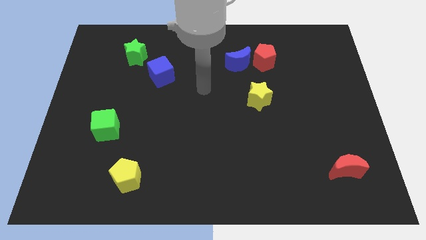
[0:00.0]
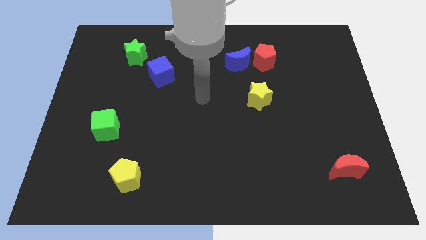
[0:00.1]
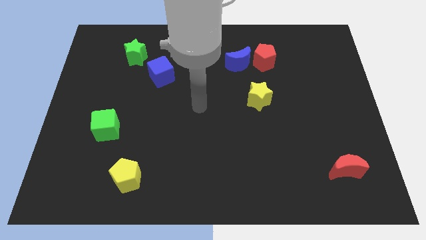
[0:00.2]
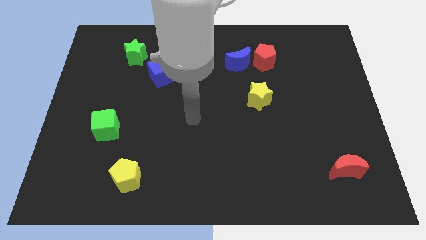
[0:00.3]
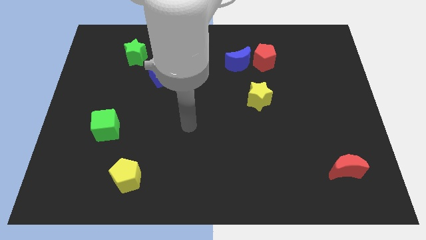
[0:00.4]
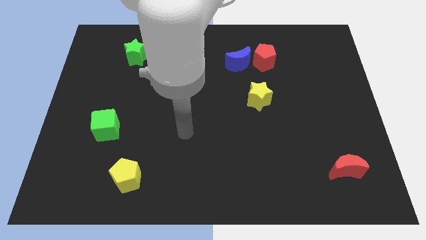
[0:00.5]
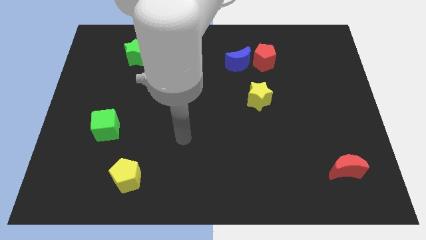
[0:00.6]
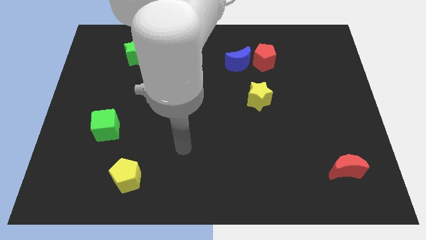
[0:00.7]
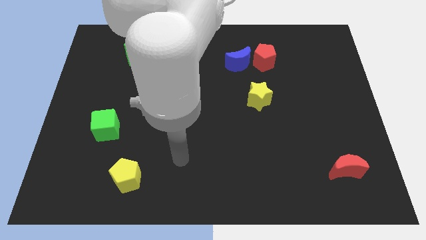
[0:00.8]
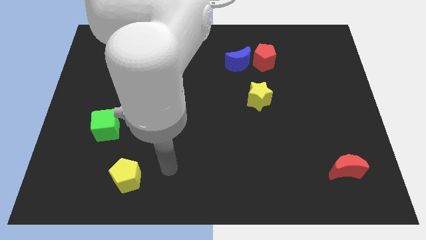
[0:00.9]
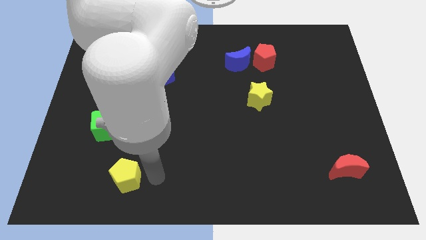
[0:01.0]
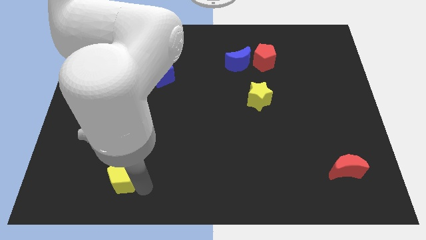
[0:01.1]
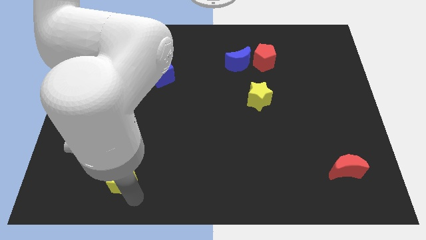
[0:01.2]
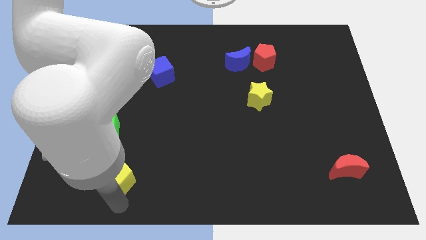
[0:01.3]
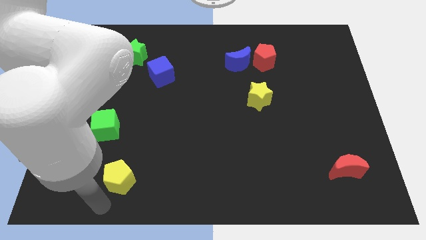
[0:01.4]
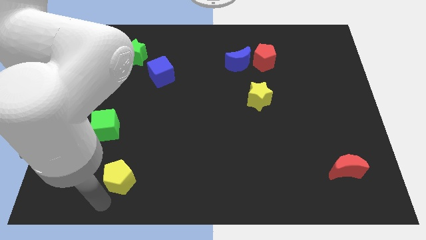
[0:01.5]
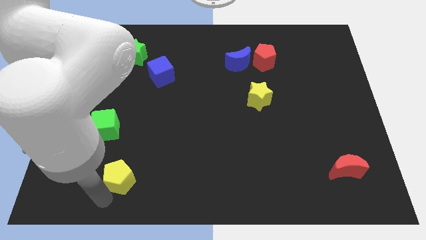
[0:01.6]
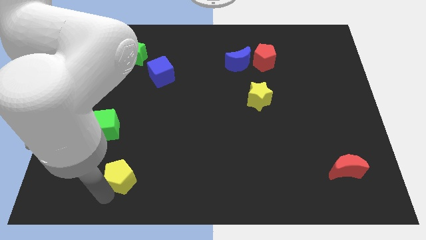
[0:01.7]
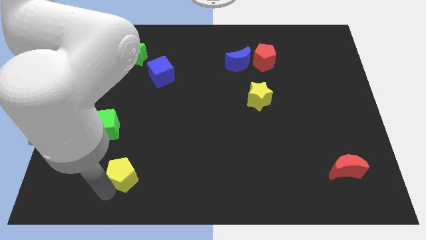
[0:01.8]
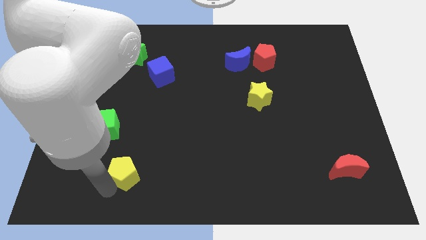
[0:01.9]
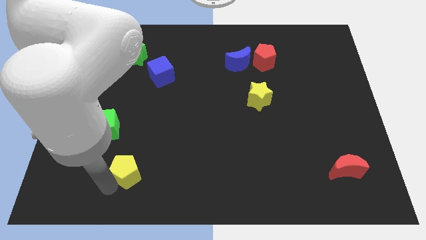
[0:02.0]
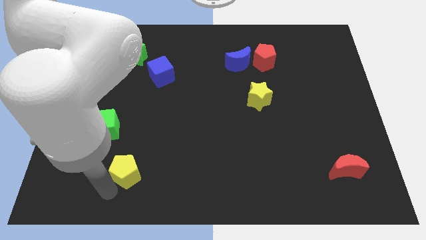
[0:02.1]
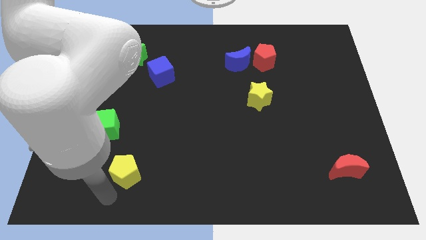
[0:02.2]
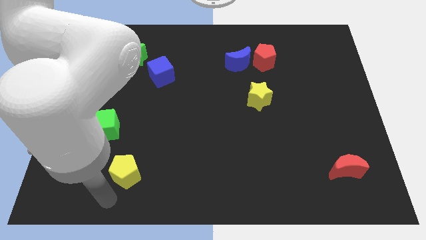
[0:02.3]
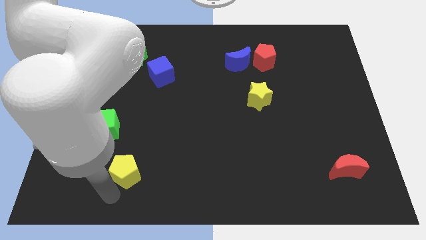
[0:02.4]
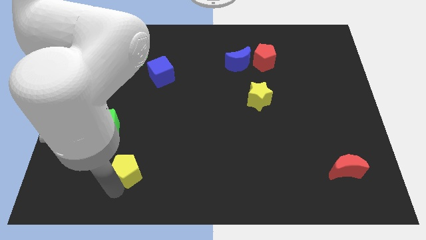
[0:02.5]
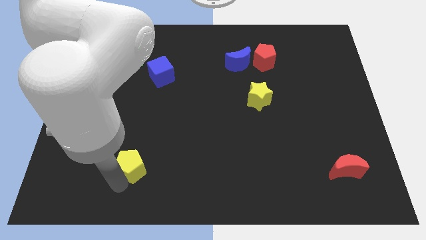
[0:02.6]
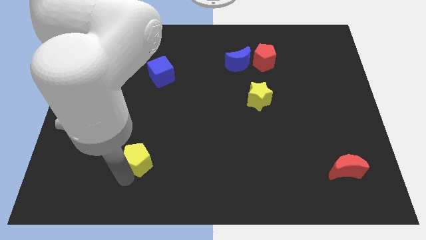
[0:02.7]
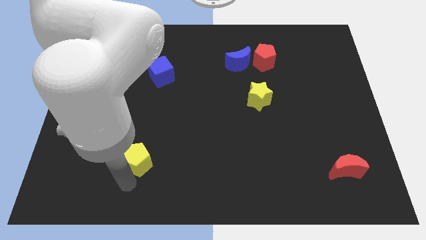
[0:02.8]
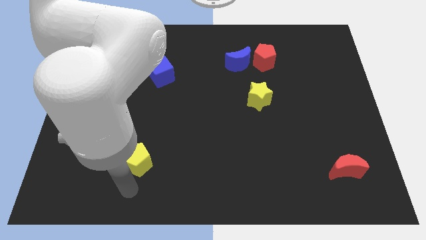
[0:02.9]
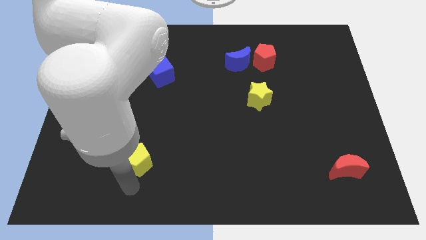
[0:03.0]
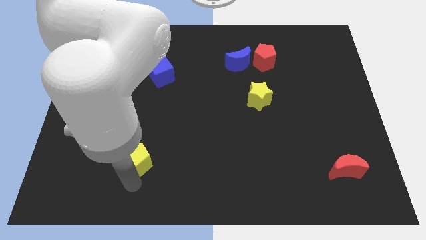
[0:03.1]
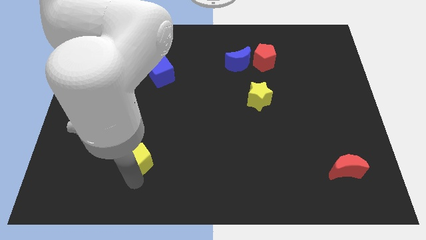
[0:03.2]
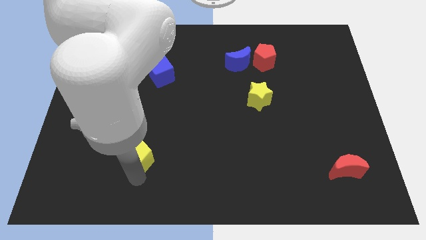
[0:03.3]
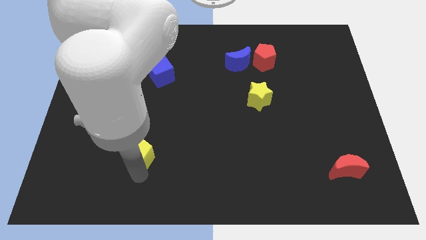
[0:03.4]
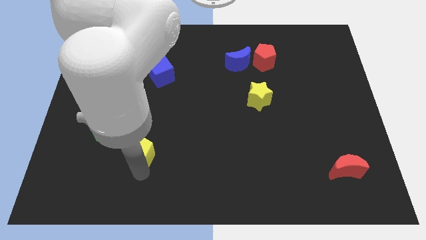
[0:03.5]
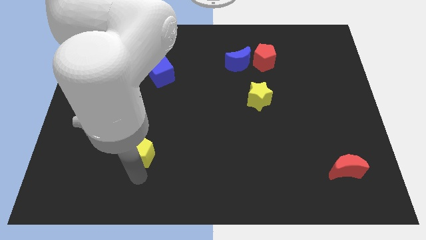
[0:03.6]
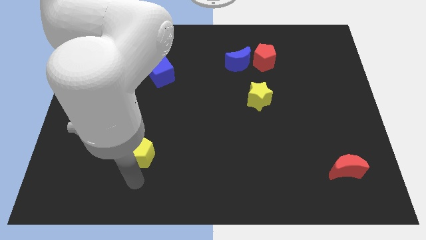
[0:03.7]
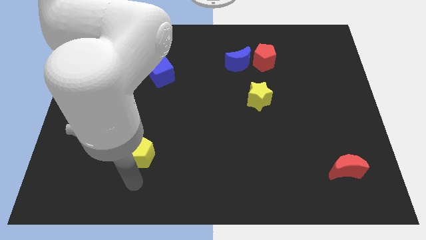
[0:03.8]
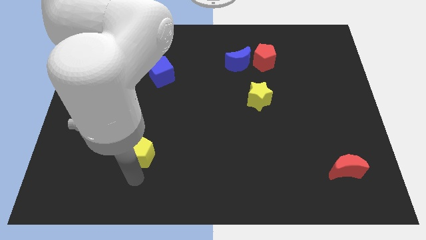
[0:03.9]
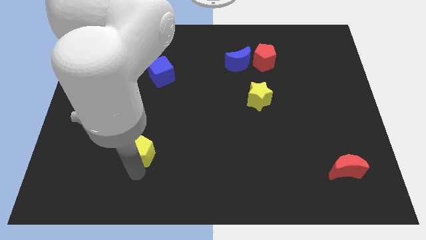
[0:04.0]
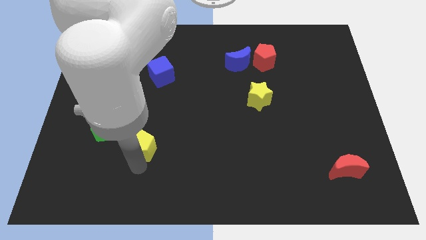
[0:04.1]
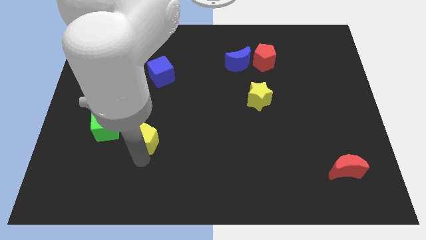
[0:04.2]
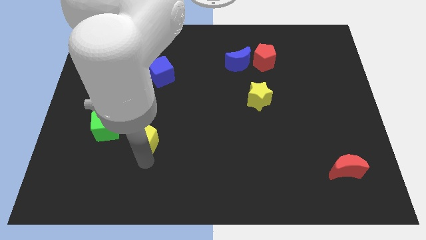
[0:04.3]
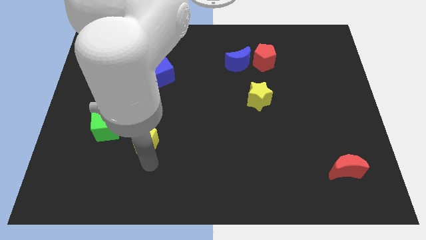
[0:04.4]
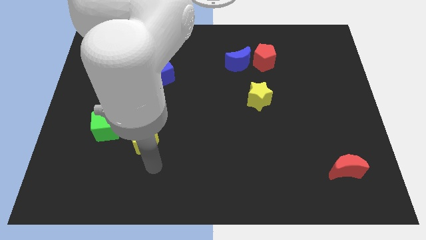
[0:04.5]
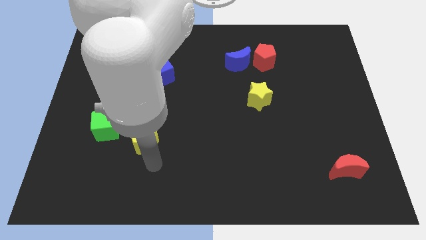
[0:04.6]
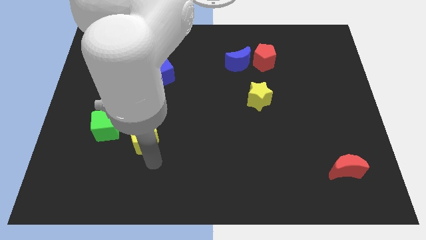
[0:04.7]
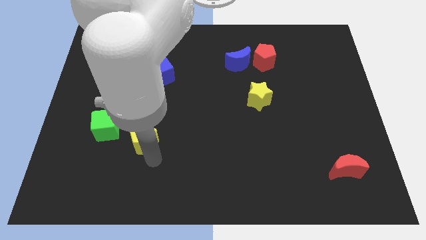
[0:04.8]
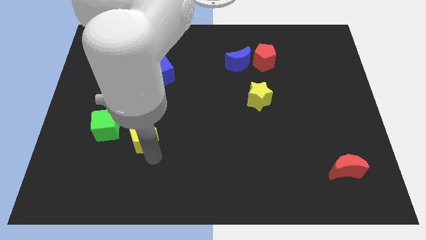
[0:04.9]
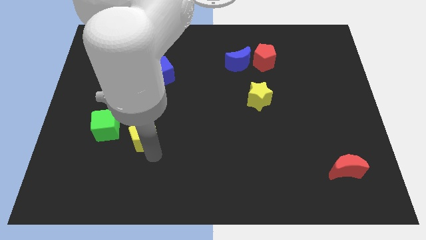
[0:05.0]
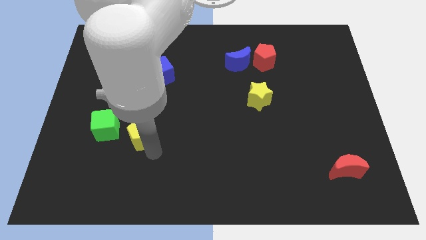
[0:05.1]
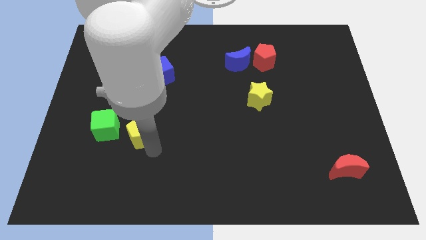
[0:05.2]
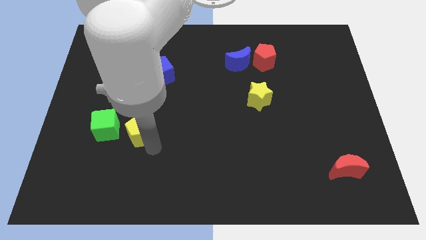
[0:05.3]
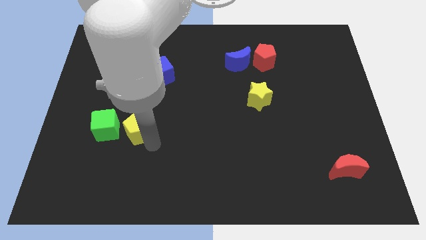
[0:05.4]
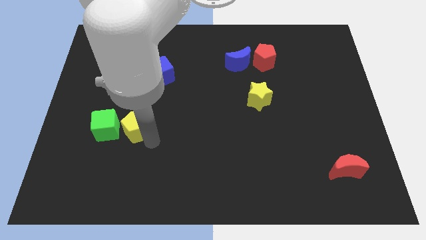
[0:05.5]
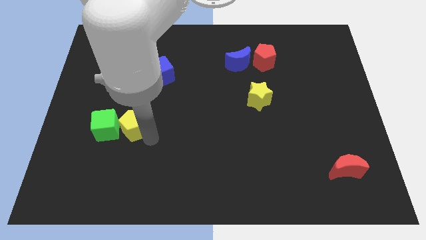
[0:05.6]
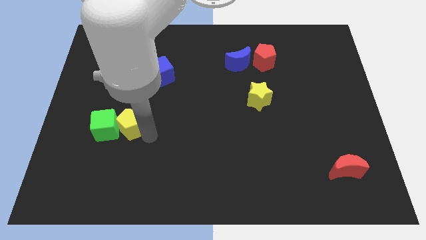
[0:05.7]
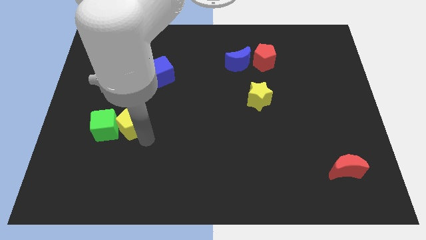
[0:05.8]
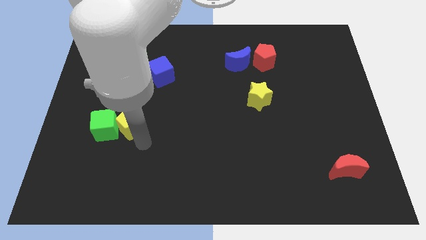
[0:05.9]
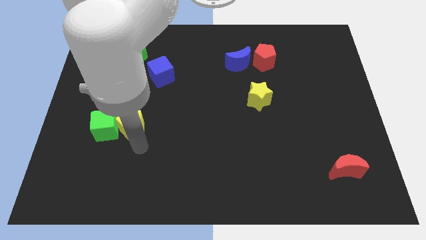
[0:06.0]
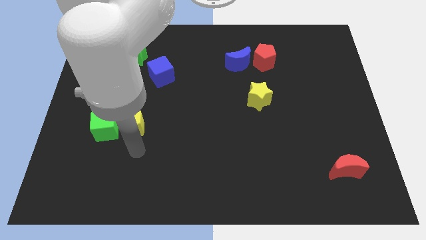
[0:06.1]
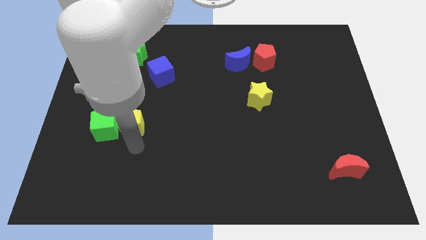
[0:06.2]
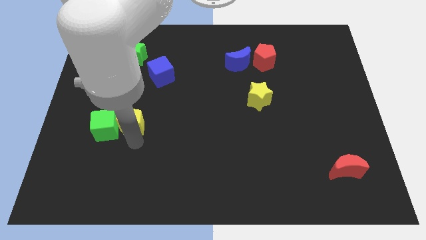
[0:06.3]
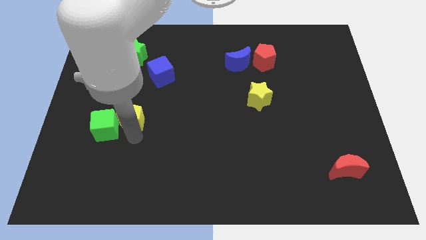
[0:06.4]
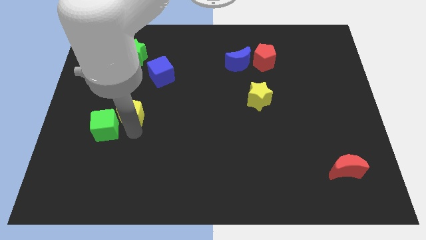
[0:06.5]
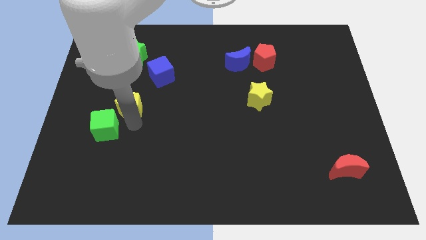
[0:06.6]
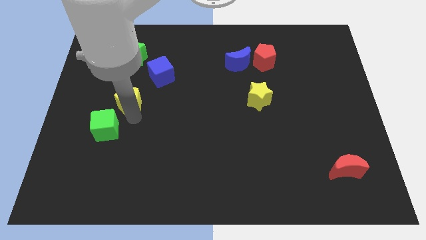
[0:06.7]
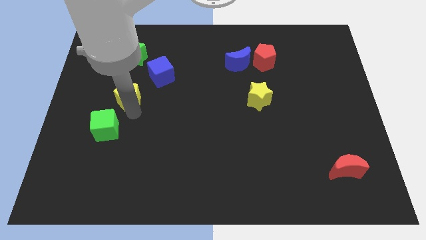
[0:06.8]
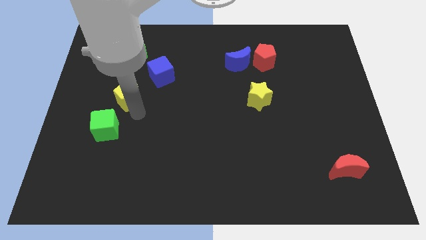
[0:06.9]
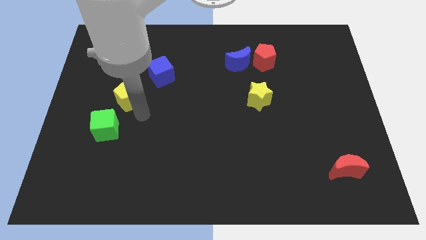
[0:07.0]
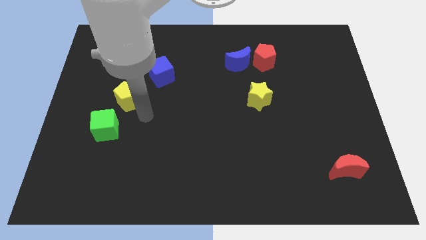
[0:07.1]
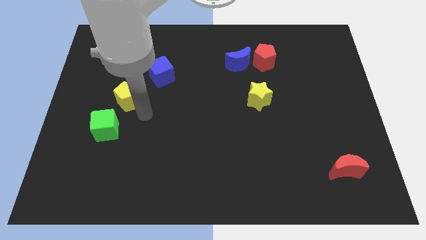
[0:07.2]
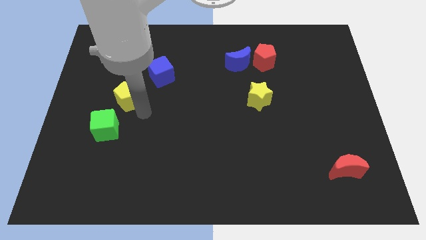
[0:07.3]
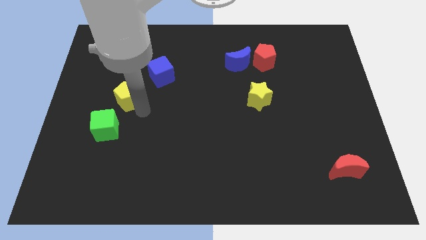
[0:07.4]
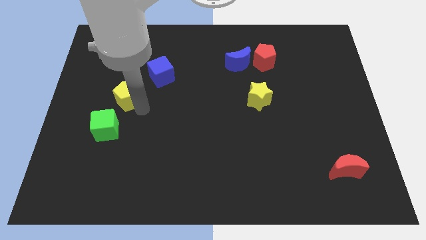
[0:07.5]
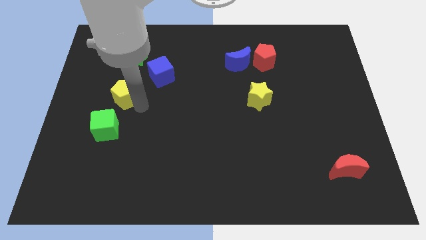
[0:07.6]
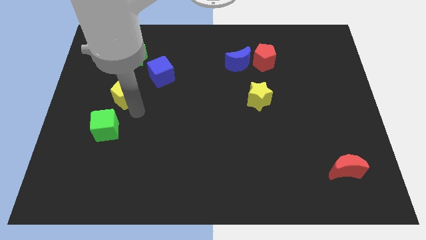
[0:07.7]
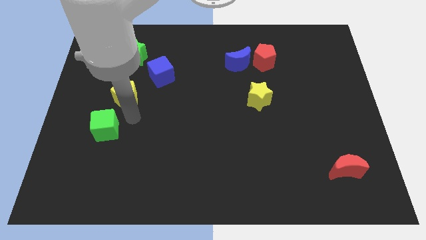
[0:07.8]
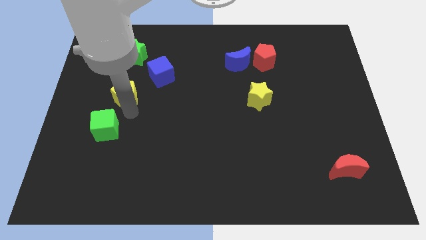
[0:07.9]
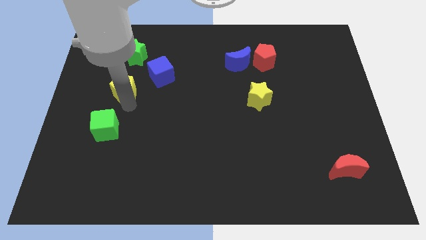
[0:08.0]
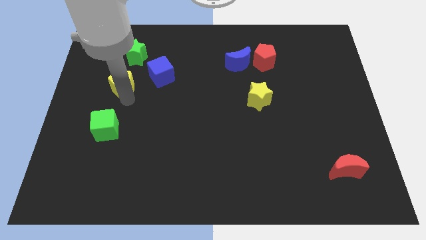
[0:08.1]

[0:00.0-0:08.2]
slide the yellow pentagon to the left of the blue cube
